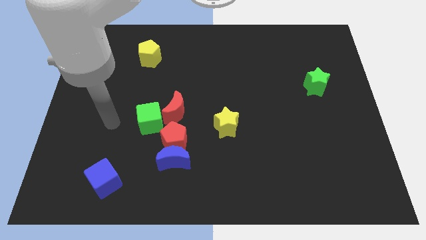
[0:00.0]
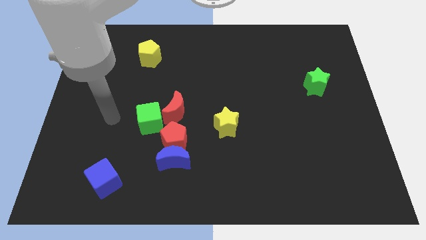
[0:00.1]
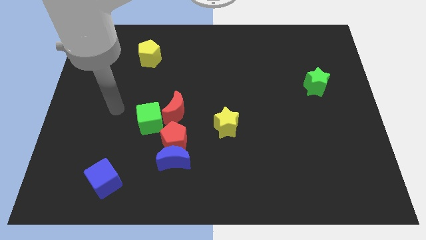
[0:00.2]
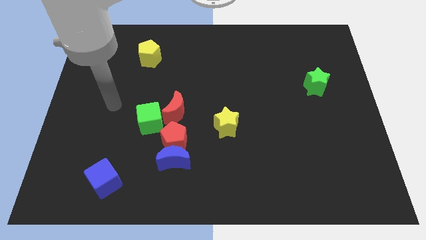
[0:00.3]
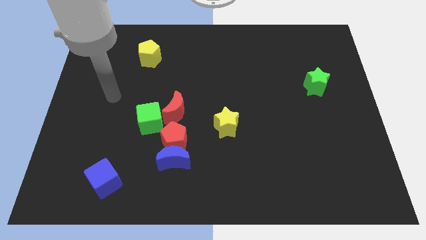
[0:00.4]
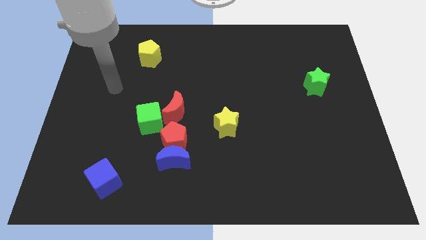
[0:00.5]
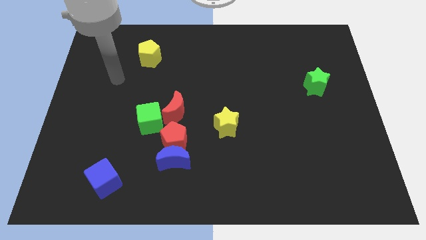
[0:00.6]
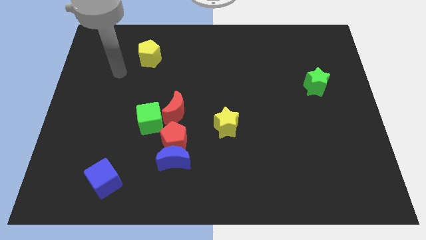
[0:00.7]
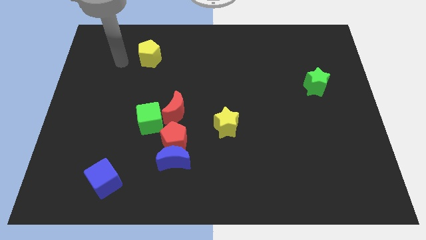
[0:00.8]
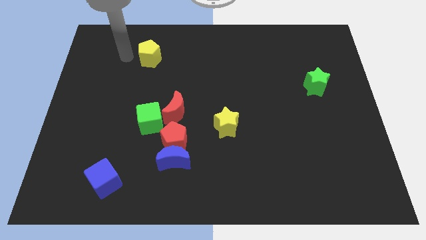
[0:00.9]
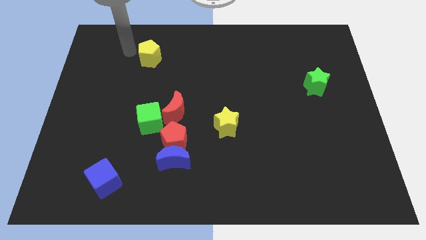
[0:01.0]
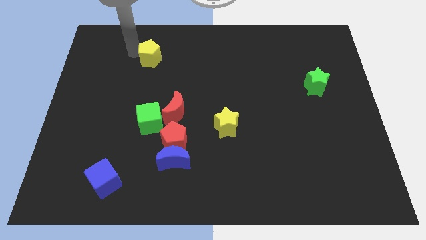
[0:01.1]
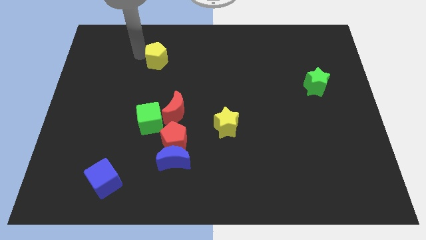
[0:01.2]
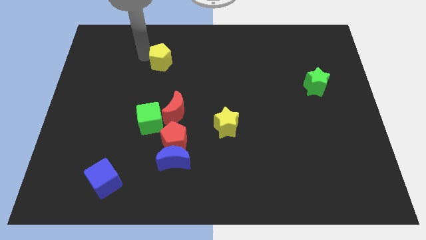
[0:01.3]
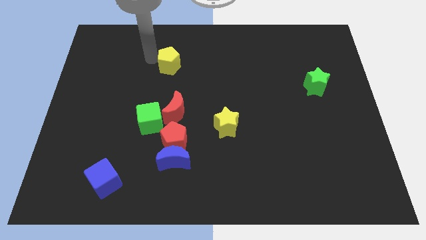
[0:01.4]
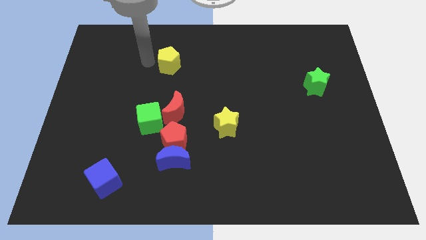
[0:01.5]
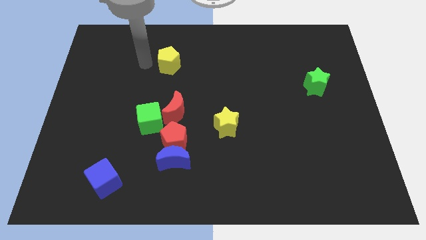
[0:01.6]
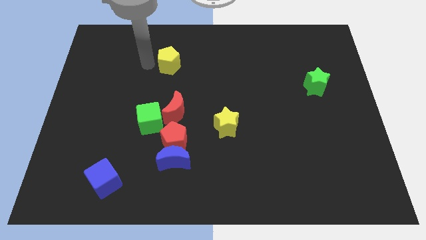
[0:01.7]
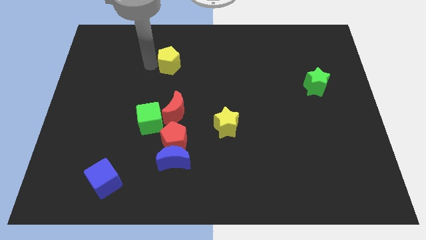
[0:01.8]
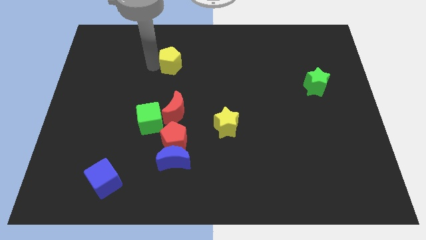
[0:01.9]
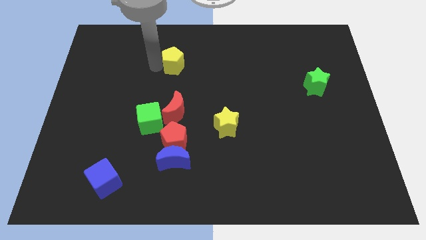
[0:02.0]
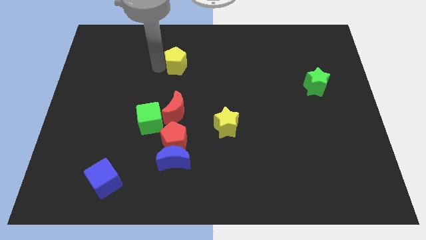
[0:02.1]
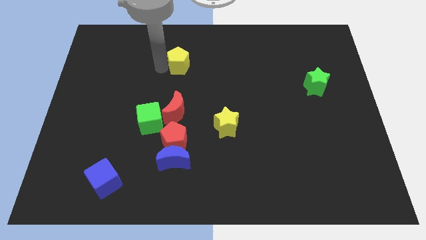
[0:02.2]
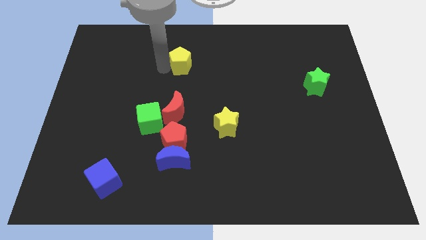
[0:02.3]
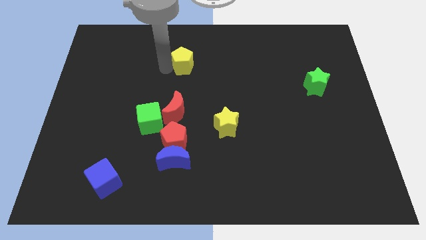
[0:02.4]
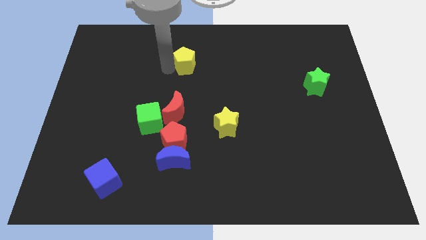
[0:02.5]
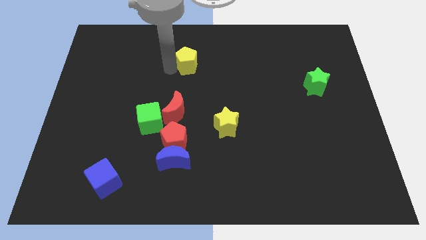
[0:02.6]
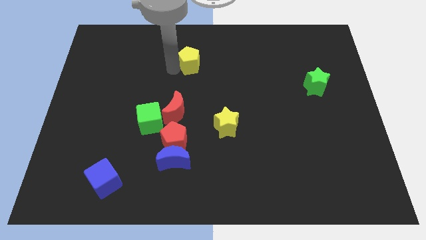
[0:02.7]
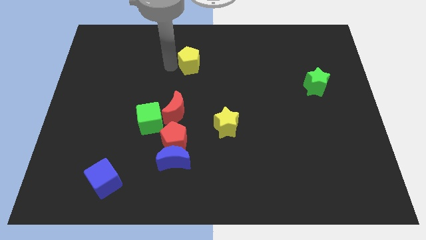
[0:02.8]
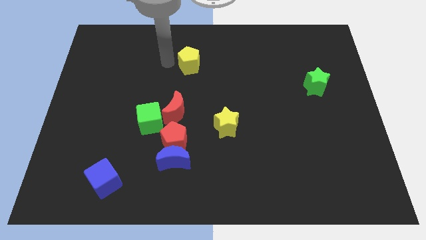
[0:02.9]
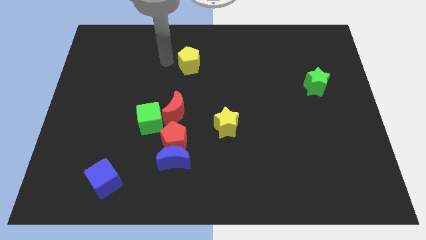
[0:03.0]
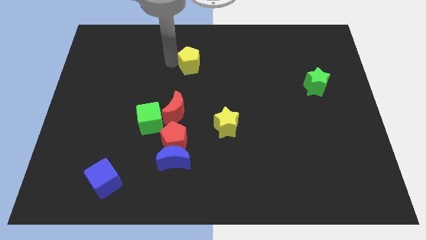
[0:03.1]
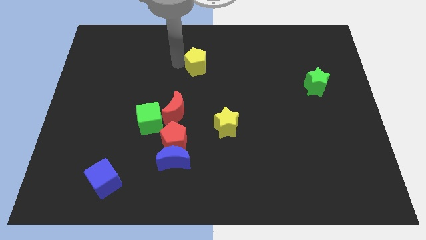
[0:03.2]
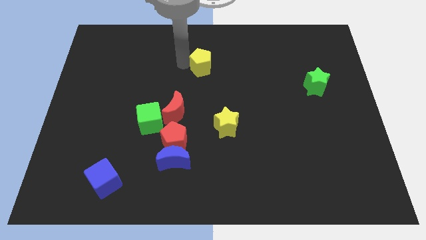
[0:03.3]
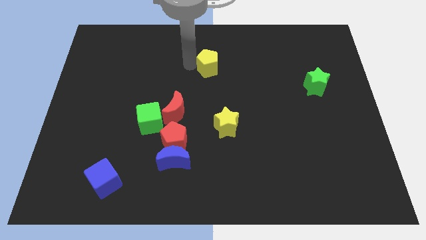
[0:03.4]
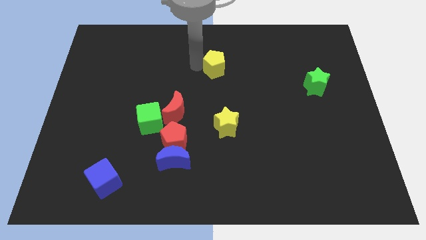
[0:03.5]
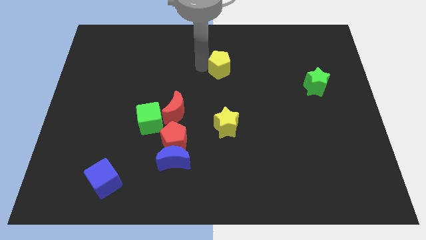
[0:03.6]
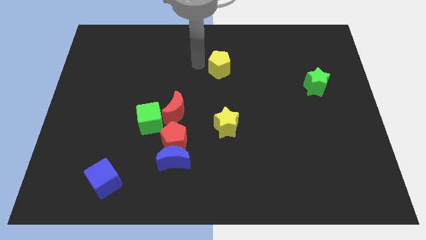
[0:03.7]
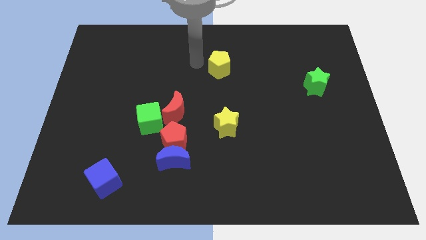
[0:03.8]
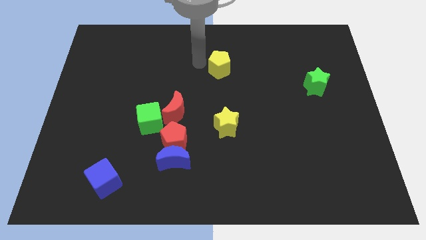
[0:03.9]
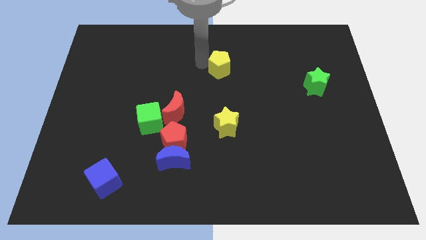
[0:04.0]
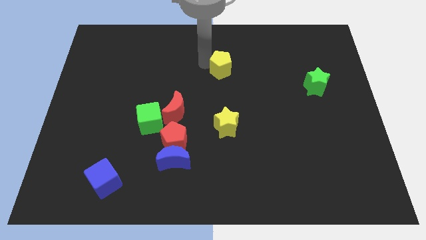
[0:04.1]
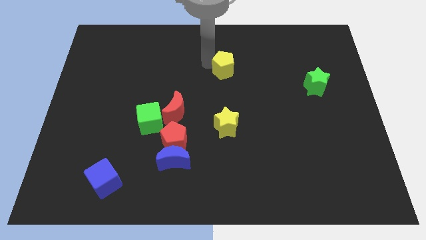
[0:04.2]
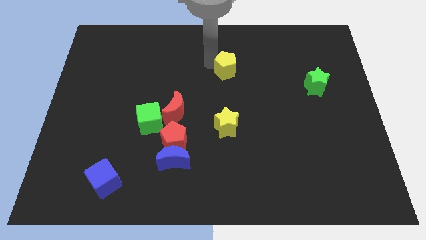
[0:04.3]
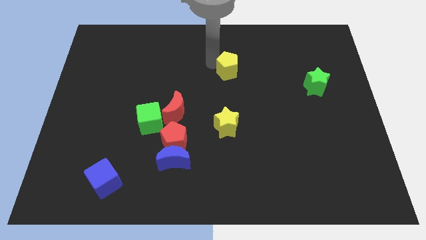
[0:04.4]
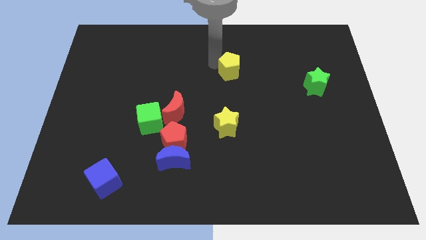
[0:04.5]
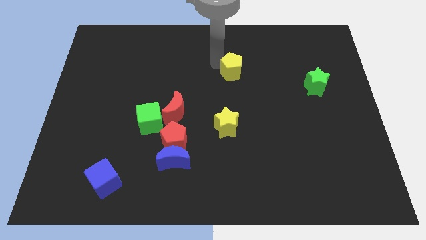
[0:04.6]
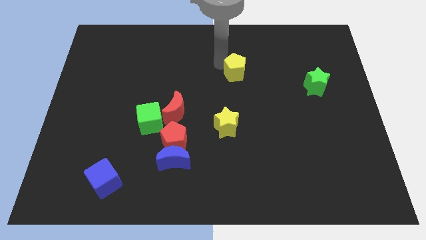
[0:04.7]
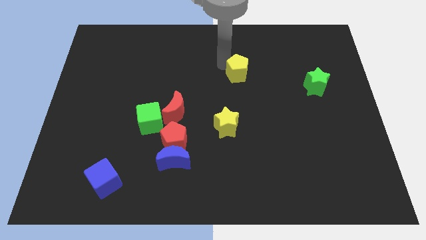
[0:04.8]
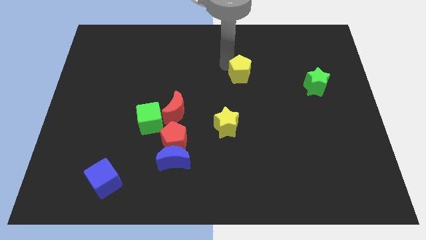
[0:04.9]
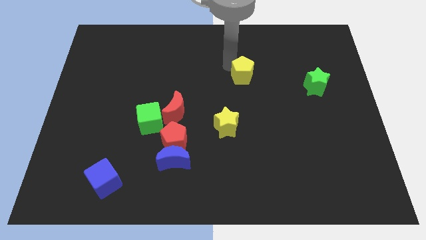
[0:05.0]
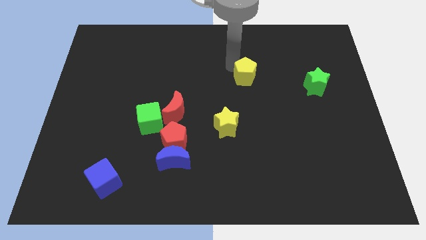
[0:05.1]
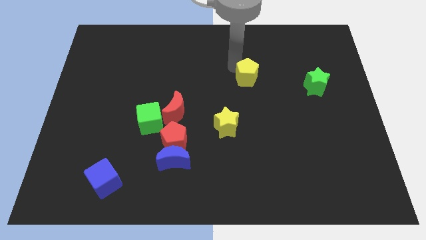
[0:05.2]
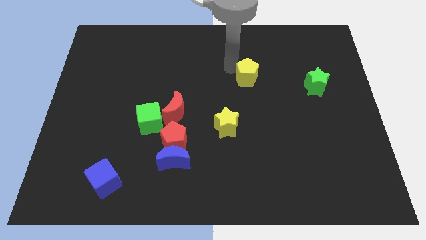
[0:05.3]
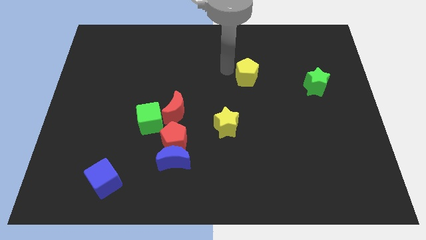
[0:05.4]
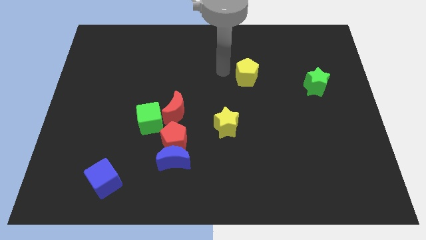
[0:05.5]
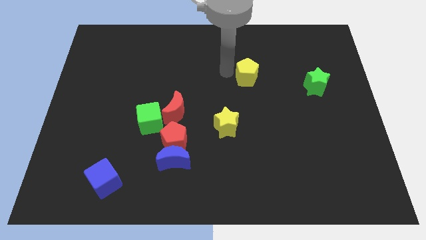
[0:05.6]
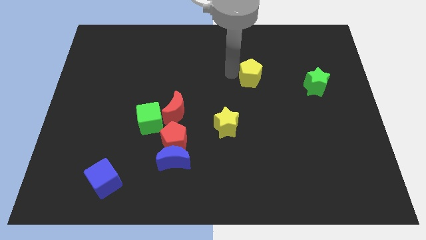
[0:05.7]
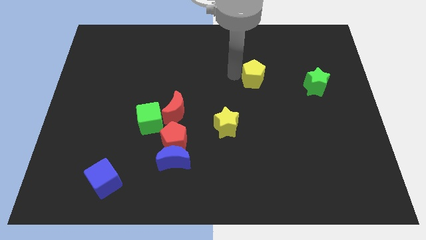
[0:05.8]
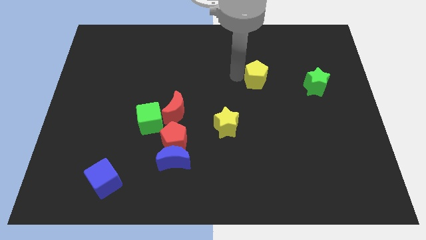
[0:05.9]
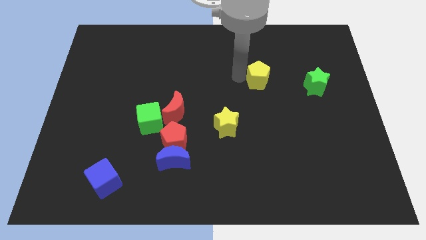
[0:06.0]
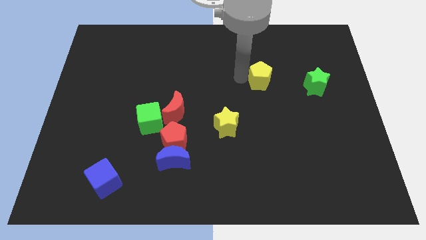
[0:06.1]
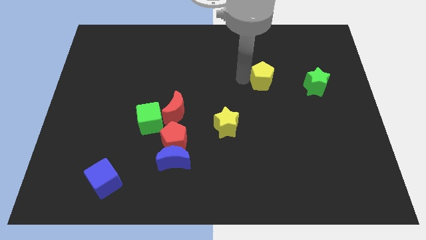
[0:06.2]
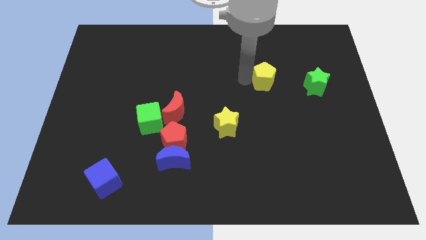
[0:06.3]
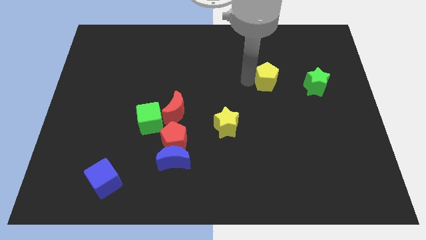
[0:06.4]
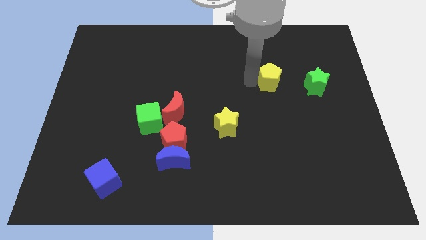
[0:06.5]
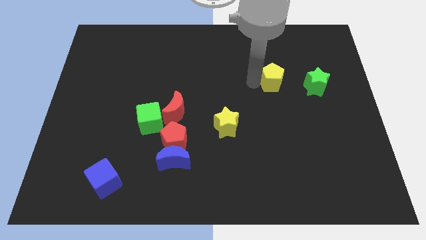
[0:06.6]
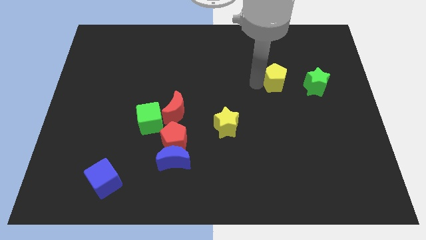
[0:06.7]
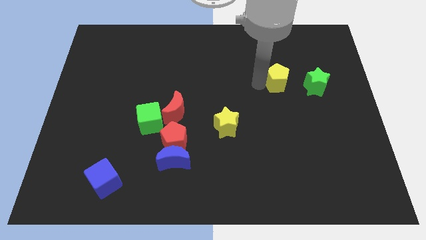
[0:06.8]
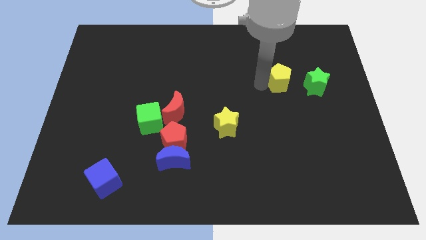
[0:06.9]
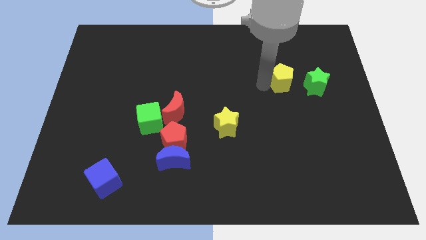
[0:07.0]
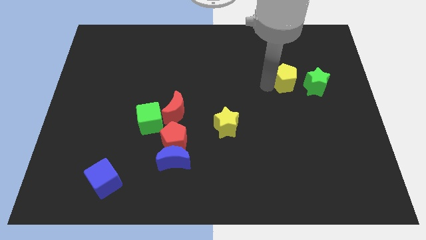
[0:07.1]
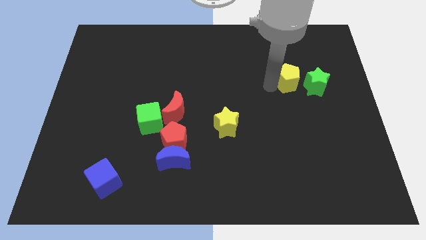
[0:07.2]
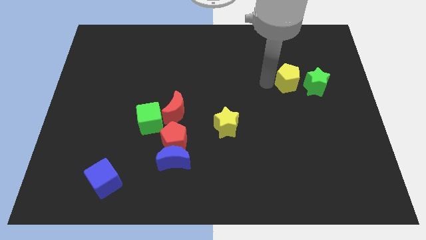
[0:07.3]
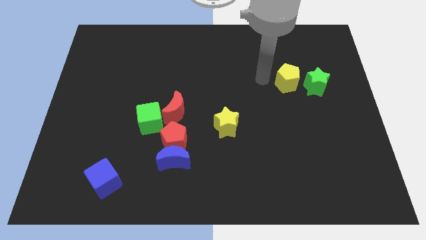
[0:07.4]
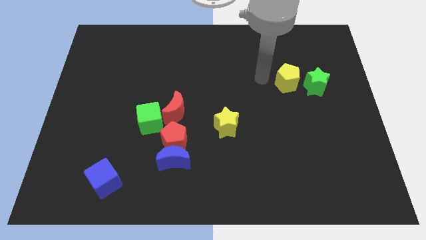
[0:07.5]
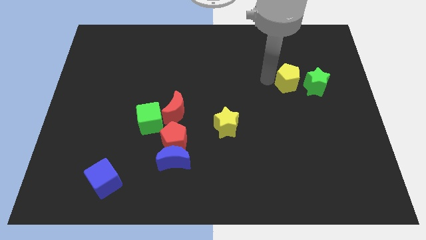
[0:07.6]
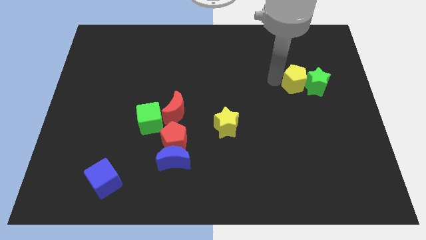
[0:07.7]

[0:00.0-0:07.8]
slide the yellow pentagon next to the green star
